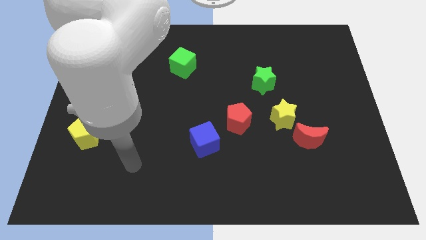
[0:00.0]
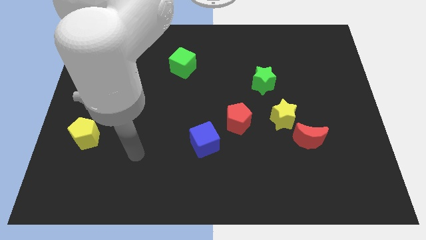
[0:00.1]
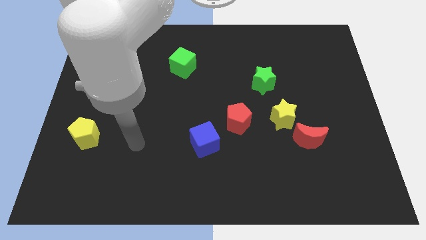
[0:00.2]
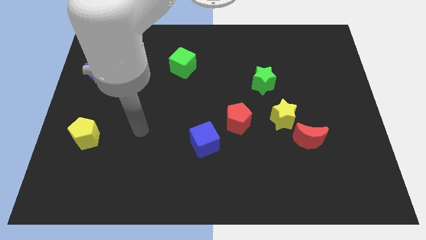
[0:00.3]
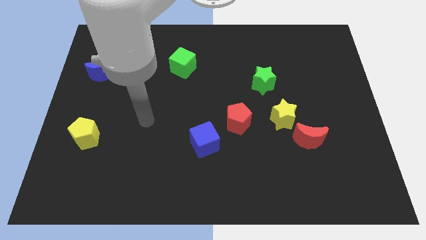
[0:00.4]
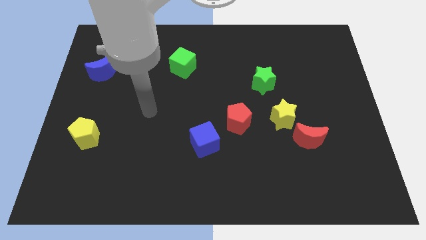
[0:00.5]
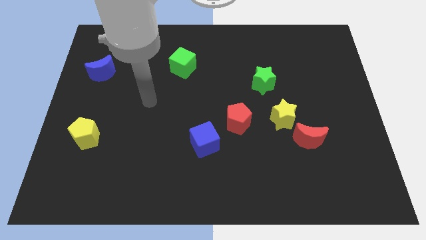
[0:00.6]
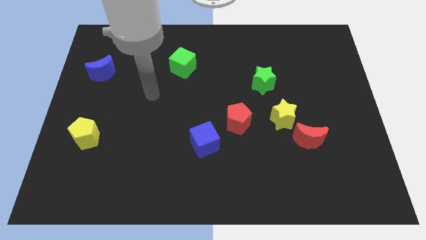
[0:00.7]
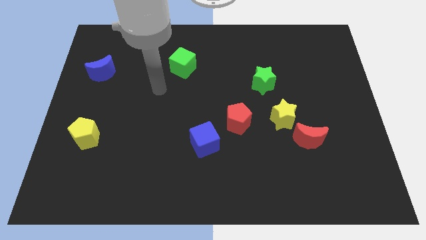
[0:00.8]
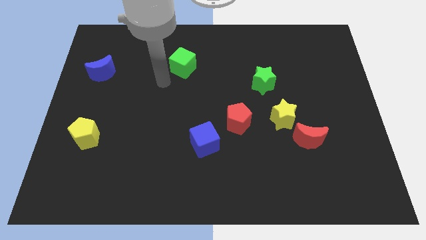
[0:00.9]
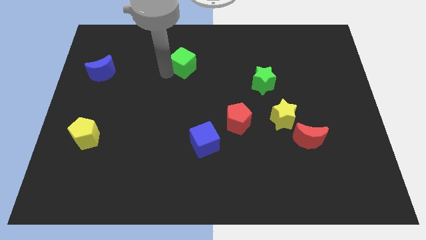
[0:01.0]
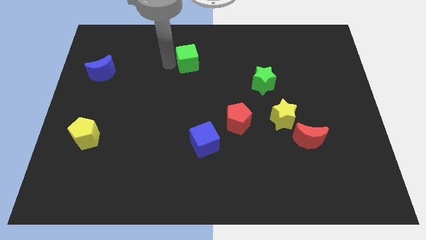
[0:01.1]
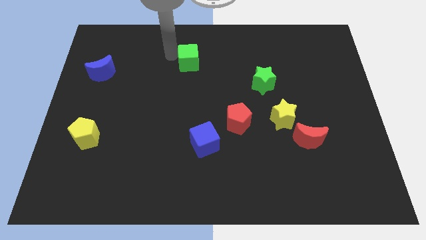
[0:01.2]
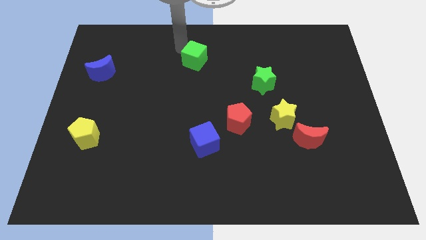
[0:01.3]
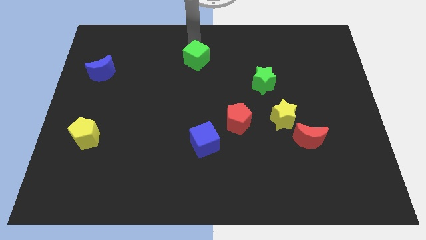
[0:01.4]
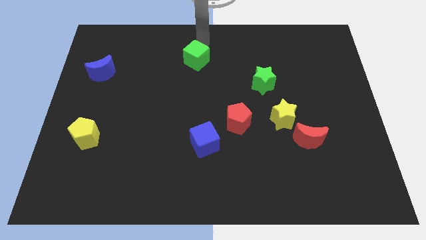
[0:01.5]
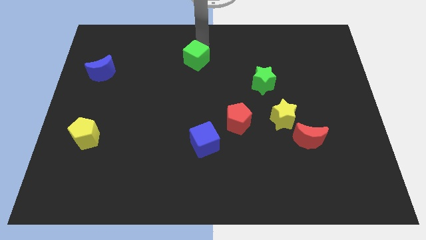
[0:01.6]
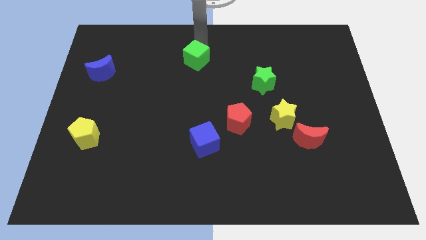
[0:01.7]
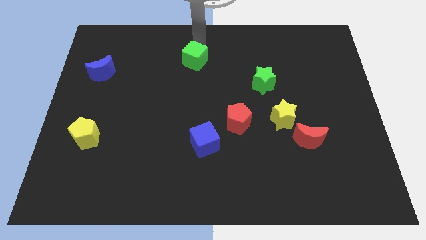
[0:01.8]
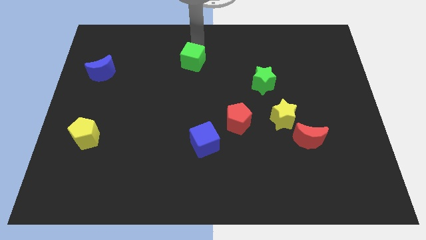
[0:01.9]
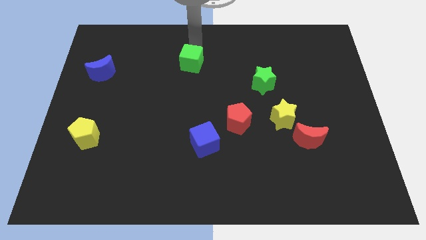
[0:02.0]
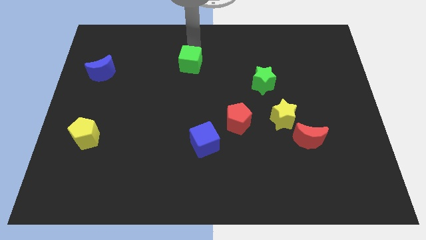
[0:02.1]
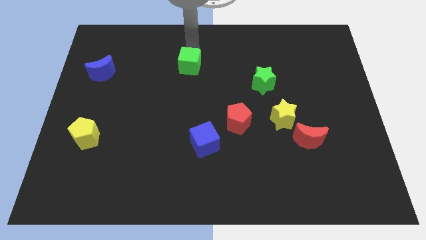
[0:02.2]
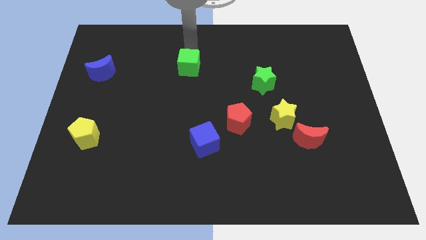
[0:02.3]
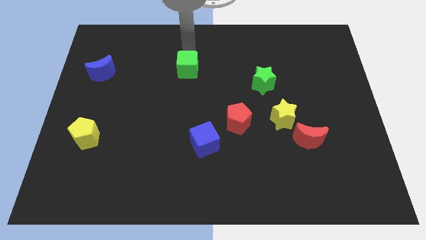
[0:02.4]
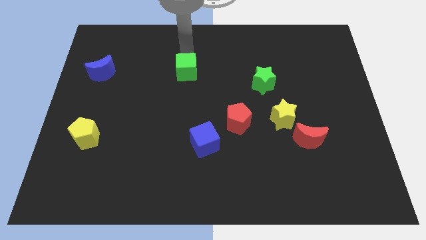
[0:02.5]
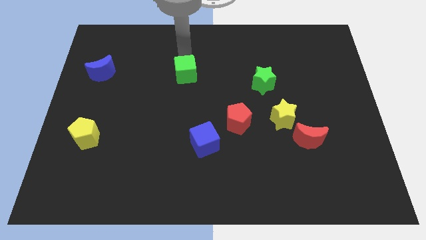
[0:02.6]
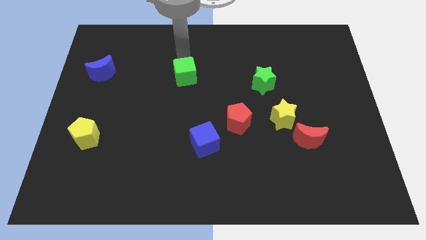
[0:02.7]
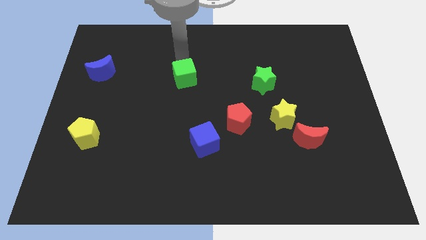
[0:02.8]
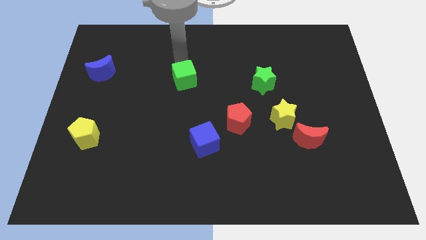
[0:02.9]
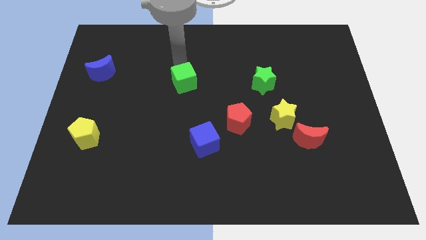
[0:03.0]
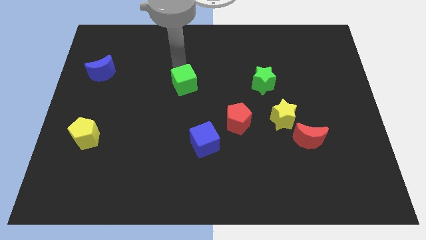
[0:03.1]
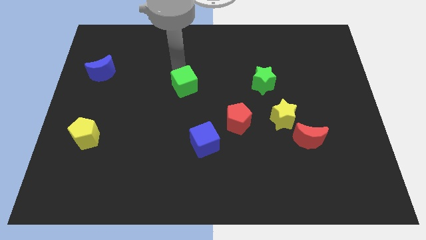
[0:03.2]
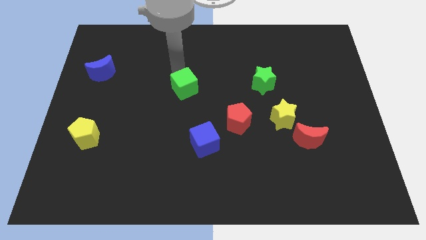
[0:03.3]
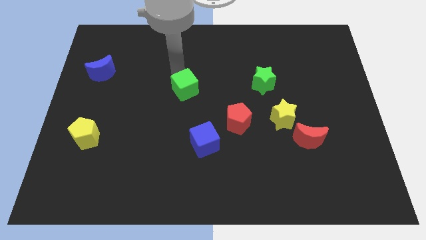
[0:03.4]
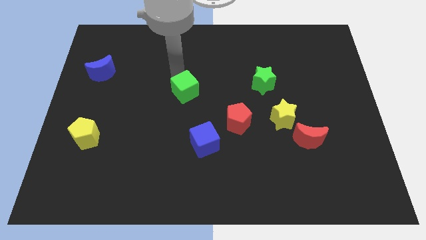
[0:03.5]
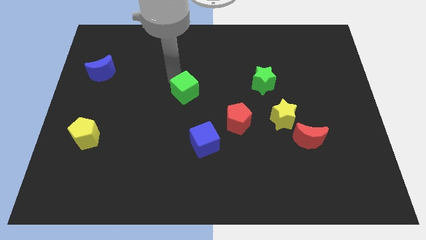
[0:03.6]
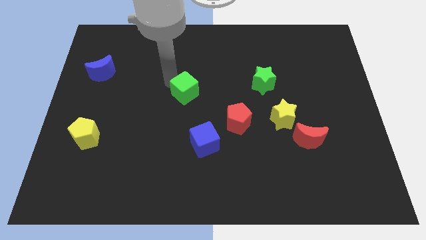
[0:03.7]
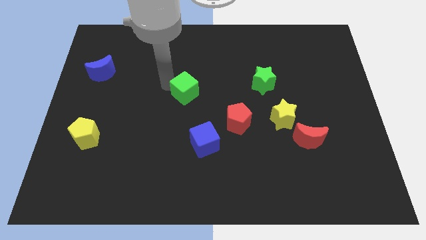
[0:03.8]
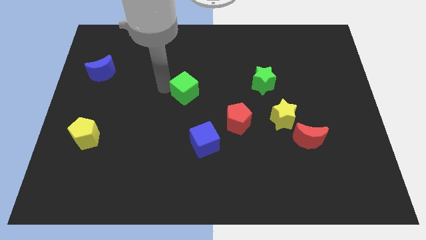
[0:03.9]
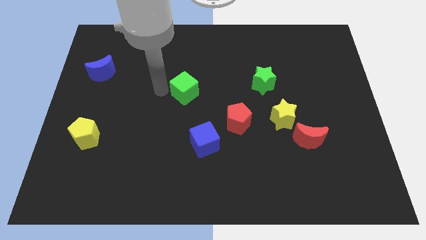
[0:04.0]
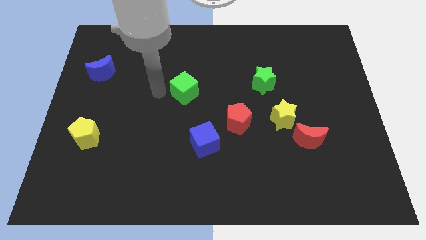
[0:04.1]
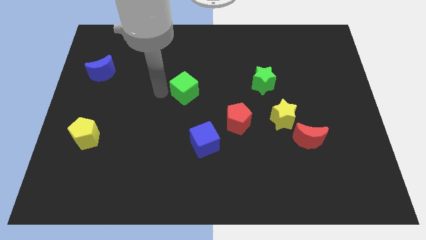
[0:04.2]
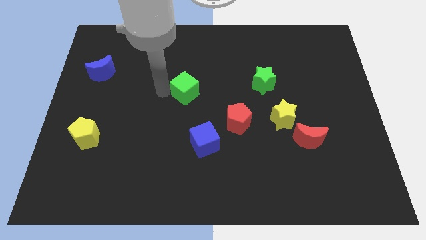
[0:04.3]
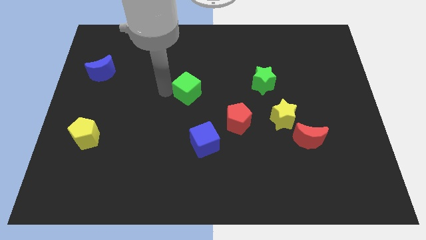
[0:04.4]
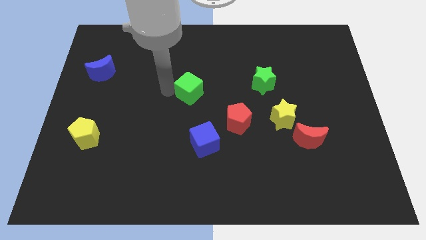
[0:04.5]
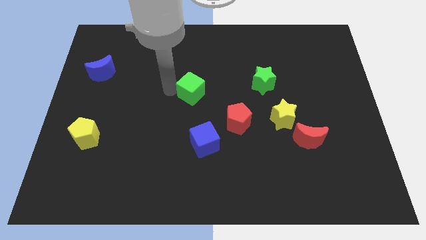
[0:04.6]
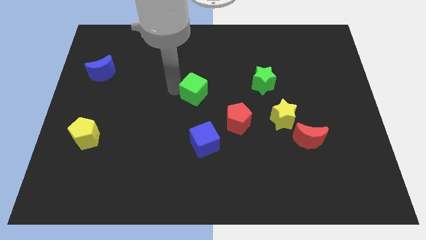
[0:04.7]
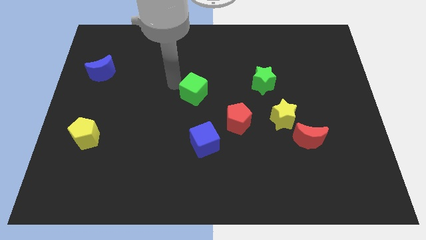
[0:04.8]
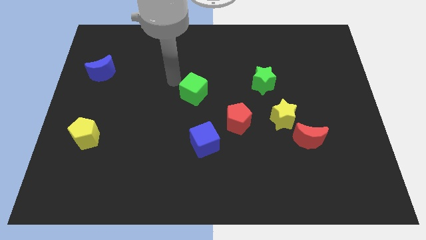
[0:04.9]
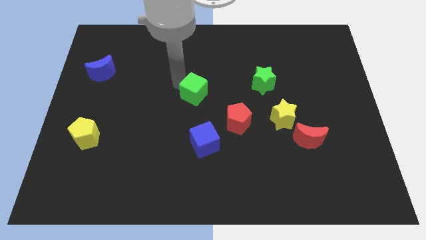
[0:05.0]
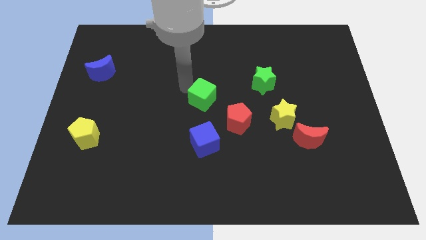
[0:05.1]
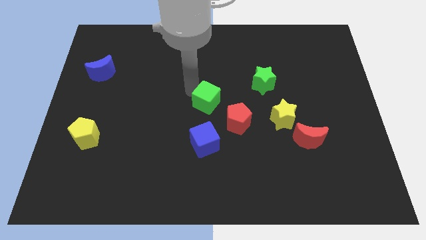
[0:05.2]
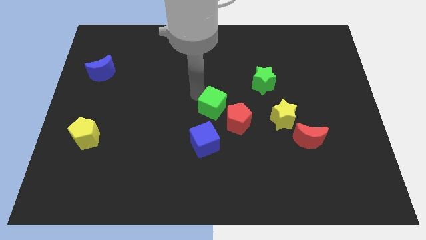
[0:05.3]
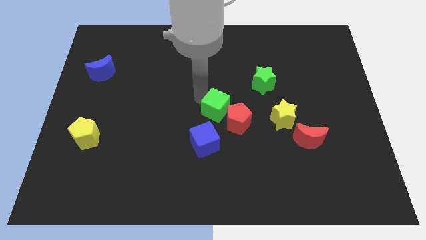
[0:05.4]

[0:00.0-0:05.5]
put the green cube towards the red pentagon

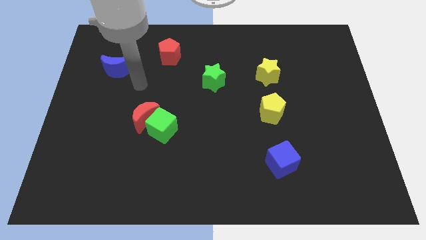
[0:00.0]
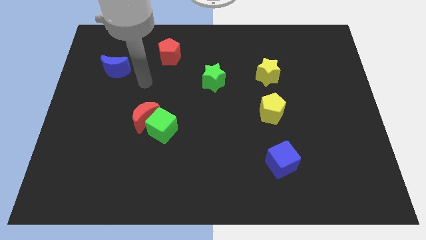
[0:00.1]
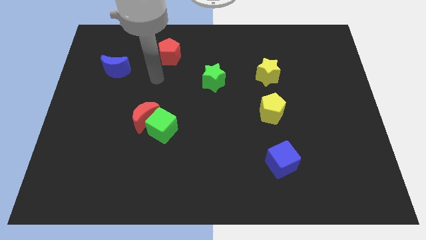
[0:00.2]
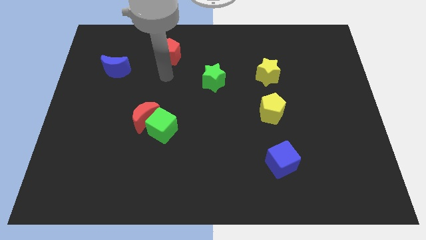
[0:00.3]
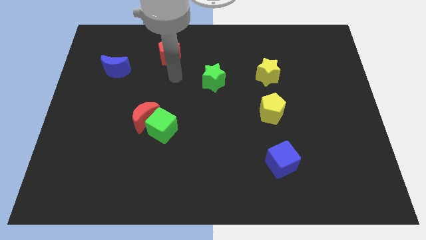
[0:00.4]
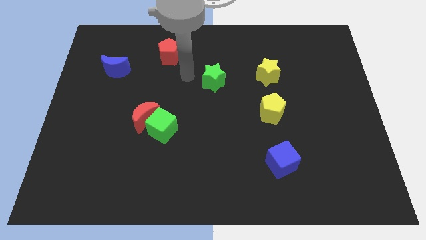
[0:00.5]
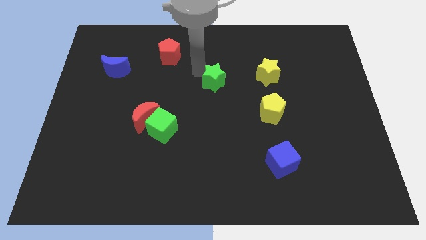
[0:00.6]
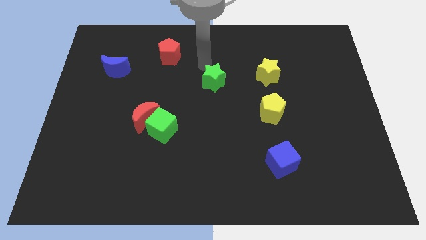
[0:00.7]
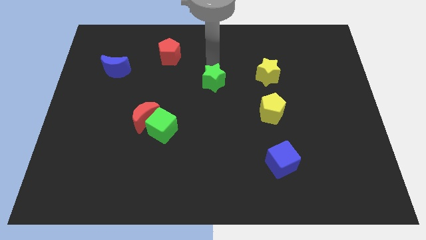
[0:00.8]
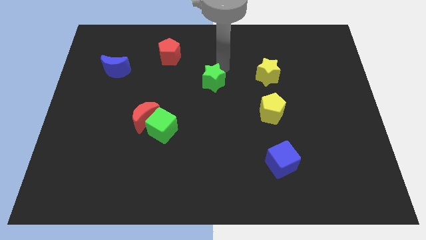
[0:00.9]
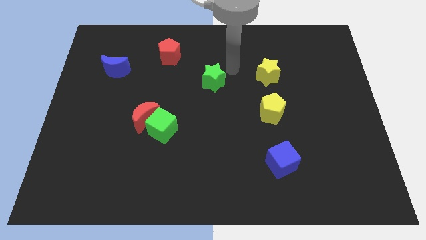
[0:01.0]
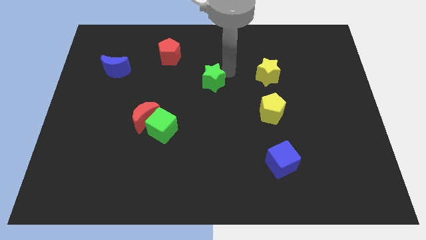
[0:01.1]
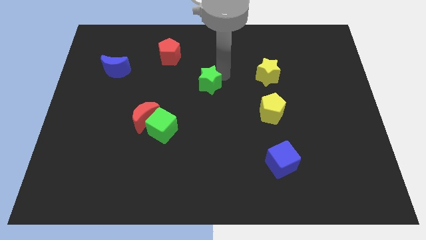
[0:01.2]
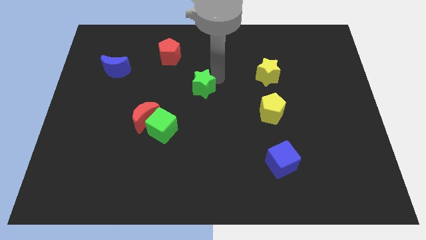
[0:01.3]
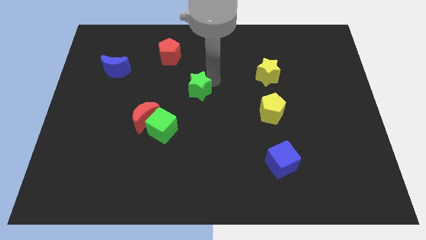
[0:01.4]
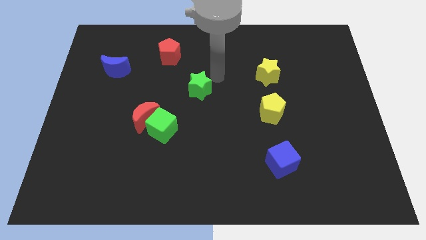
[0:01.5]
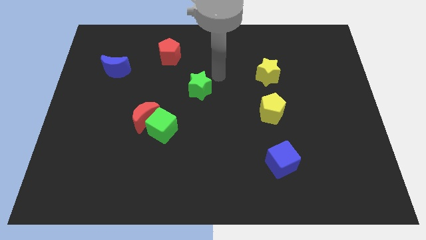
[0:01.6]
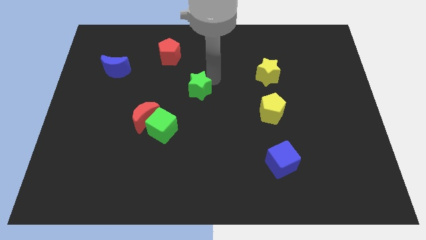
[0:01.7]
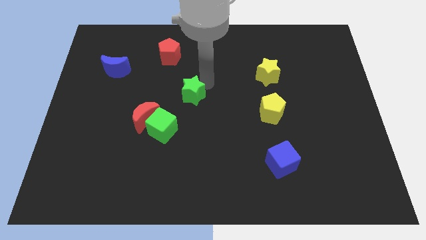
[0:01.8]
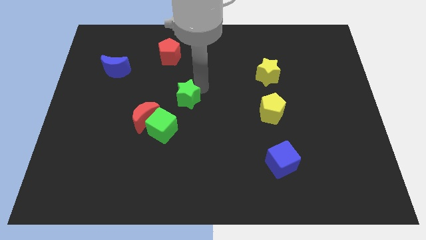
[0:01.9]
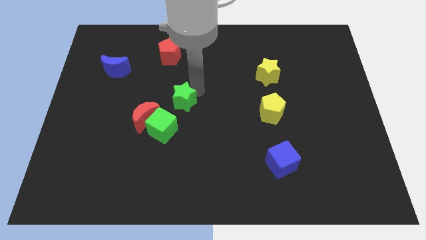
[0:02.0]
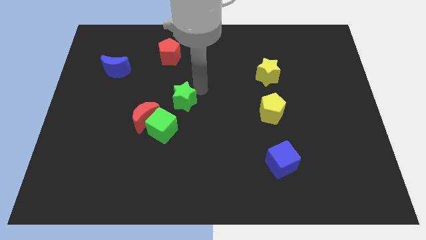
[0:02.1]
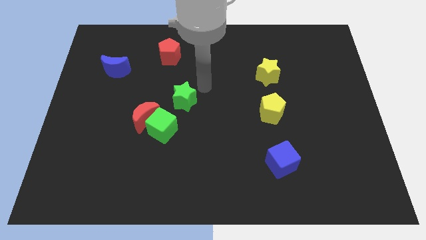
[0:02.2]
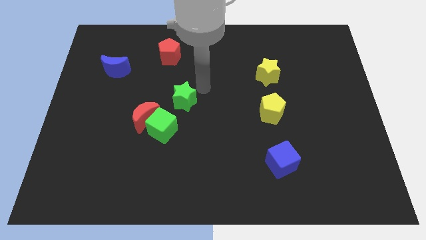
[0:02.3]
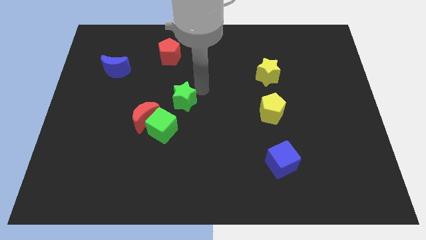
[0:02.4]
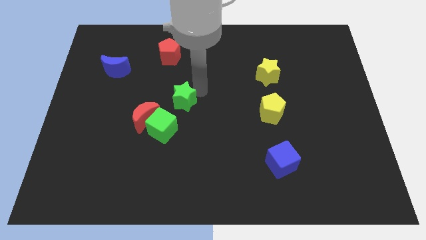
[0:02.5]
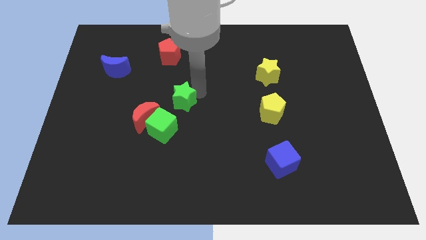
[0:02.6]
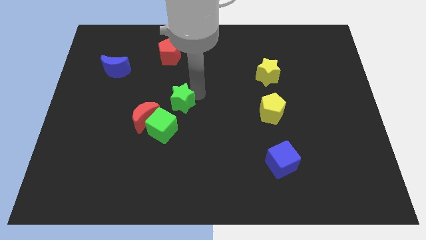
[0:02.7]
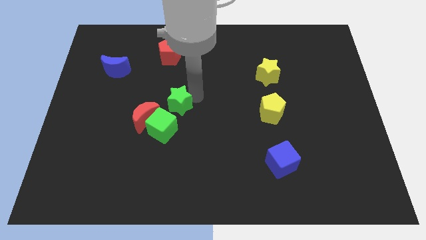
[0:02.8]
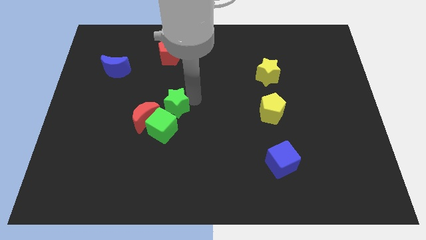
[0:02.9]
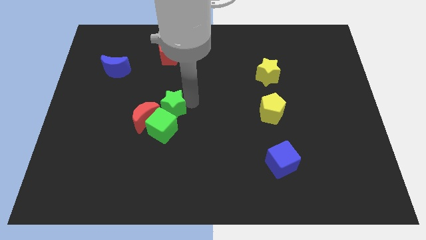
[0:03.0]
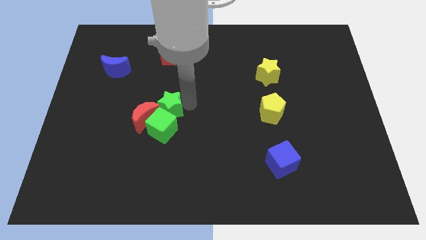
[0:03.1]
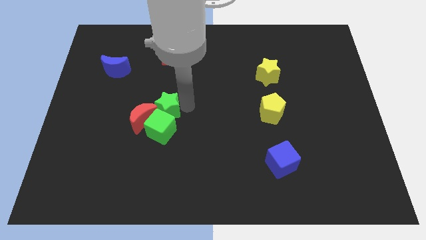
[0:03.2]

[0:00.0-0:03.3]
put the green star close to the red moon
